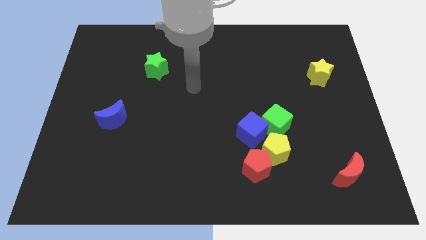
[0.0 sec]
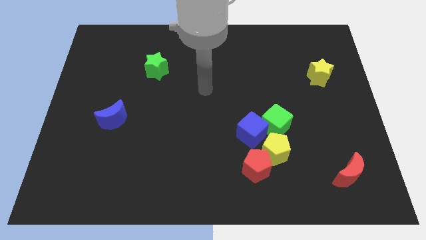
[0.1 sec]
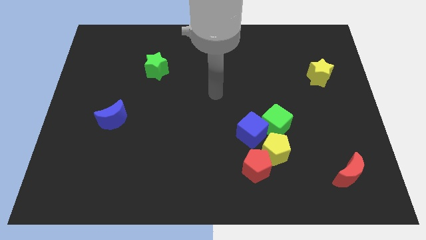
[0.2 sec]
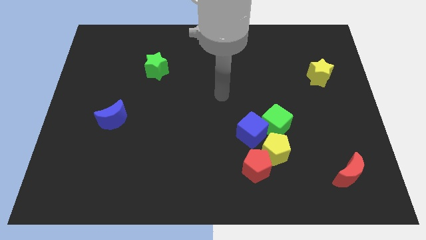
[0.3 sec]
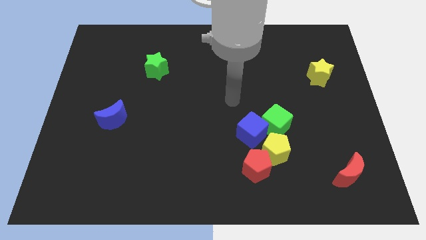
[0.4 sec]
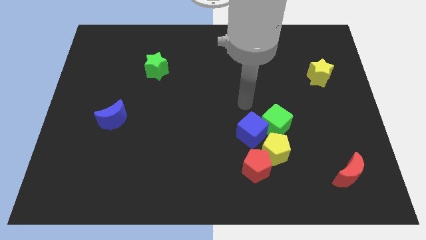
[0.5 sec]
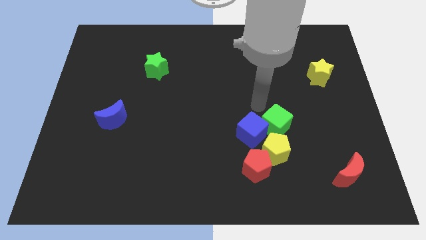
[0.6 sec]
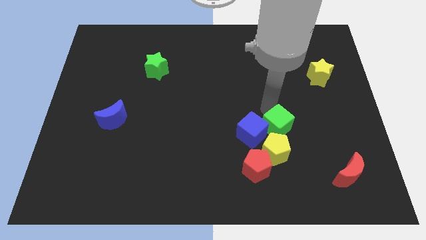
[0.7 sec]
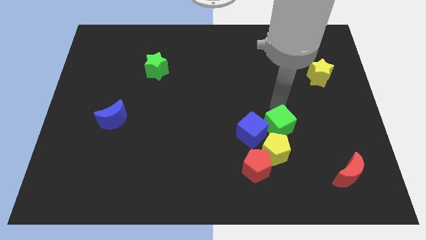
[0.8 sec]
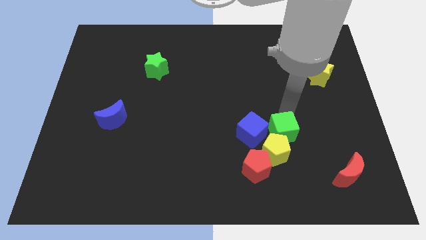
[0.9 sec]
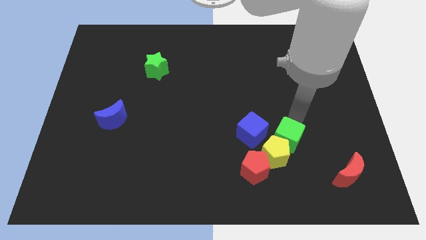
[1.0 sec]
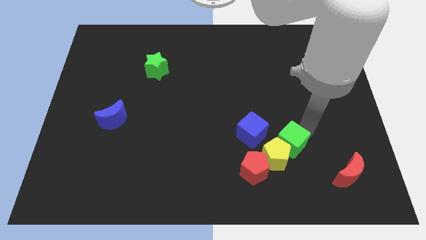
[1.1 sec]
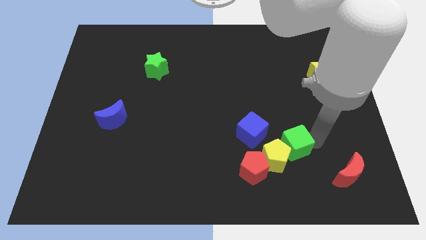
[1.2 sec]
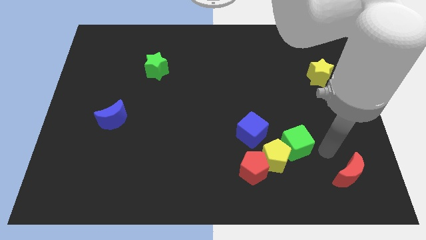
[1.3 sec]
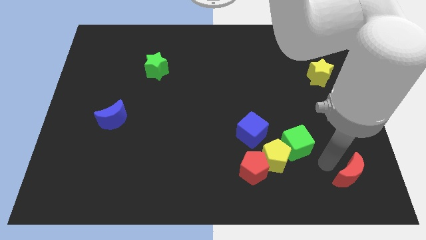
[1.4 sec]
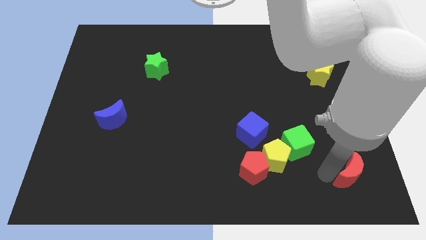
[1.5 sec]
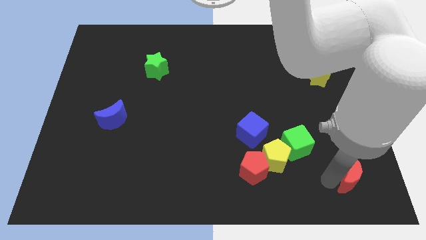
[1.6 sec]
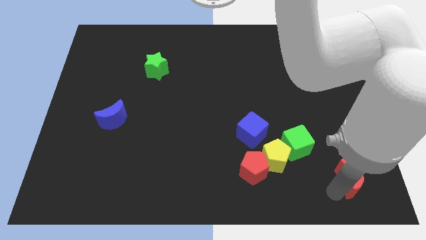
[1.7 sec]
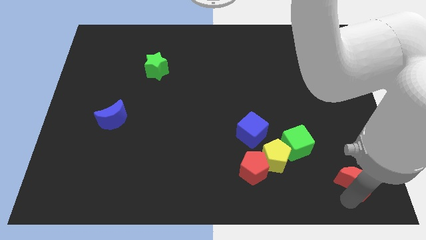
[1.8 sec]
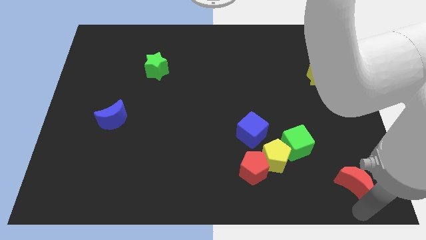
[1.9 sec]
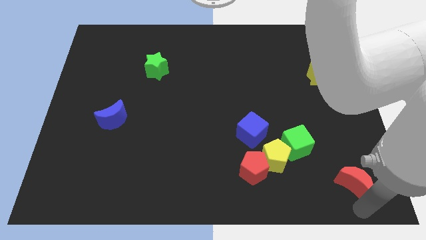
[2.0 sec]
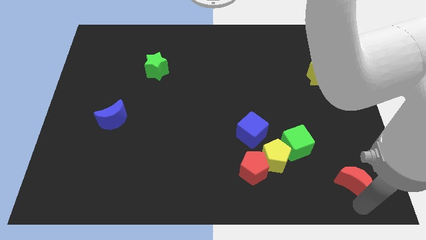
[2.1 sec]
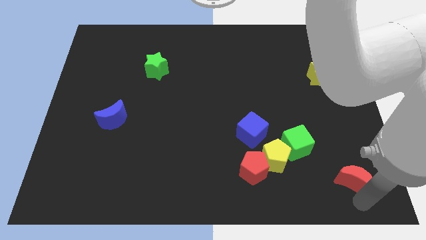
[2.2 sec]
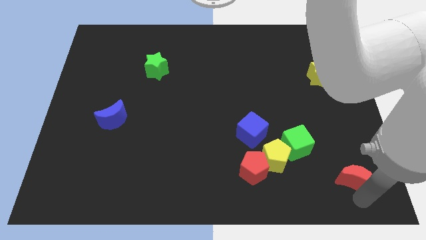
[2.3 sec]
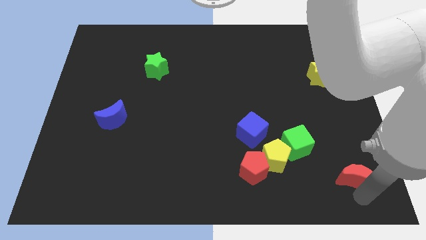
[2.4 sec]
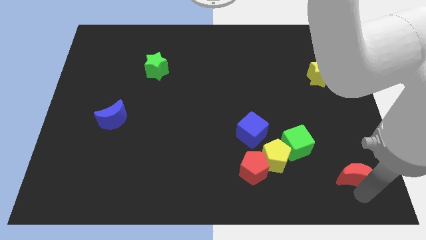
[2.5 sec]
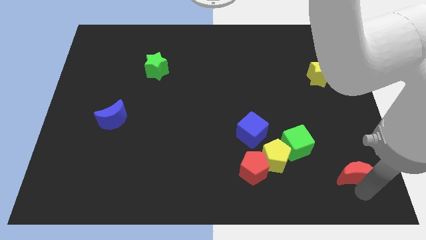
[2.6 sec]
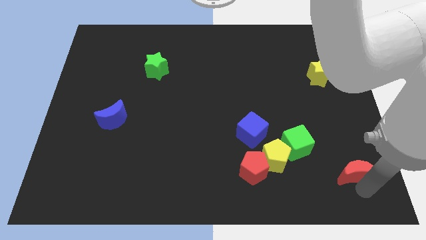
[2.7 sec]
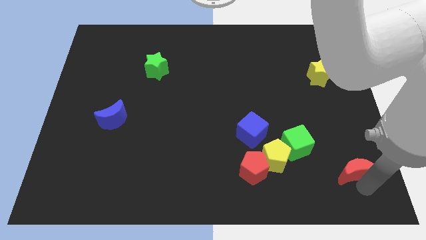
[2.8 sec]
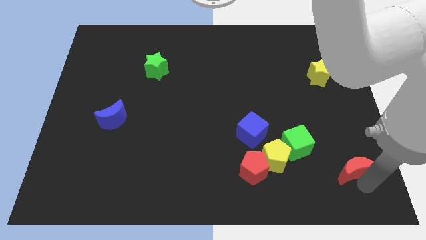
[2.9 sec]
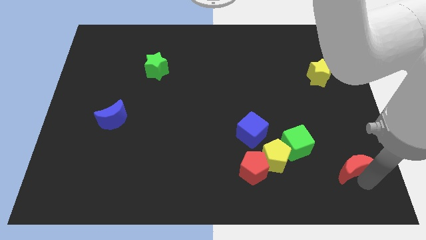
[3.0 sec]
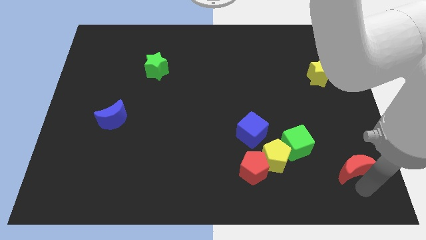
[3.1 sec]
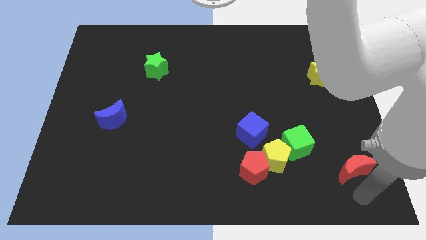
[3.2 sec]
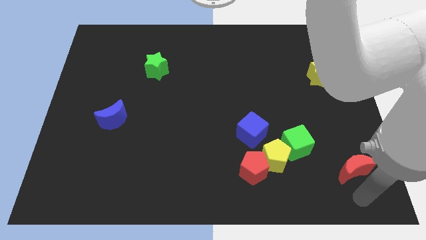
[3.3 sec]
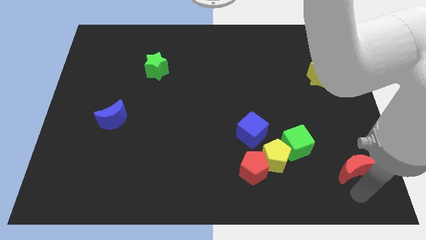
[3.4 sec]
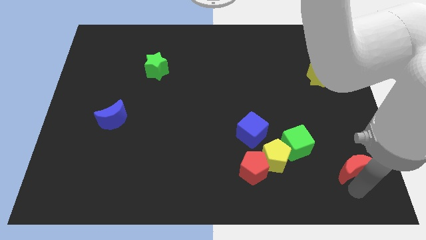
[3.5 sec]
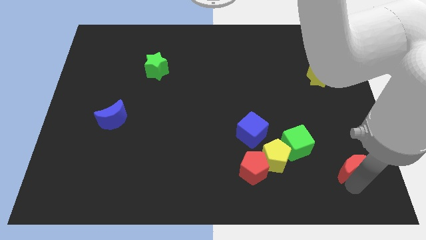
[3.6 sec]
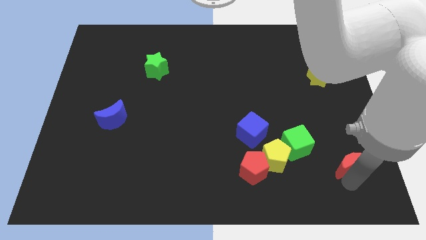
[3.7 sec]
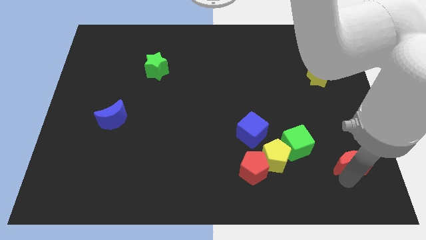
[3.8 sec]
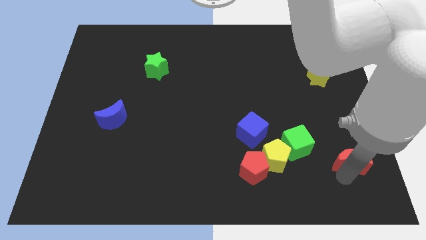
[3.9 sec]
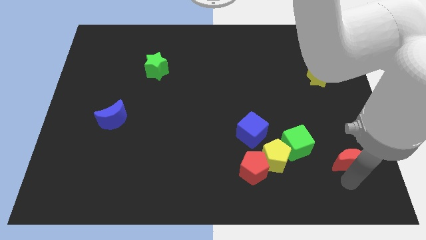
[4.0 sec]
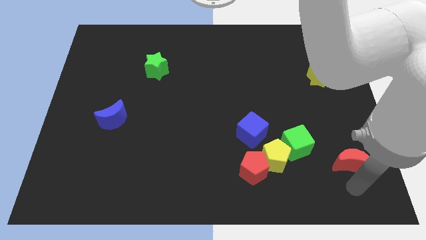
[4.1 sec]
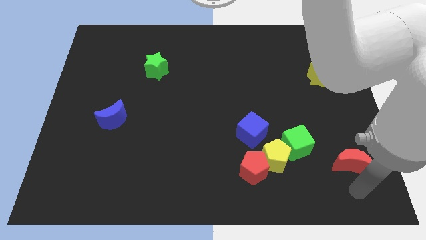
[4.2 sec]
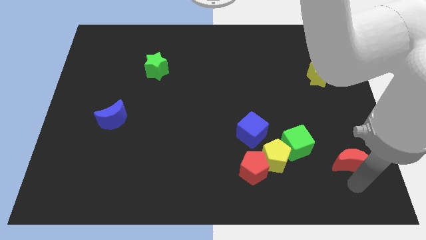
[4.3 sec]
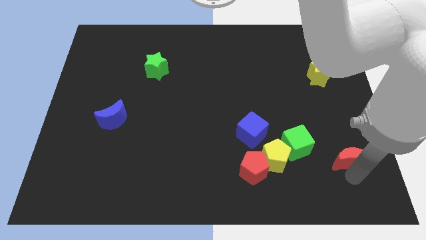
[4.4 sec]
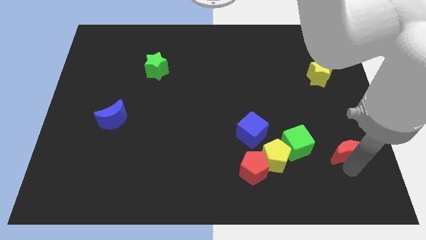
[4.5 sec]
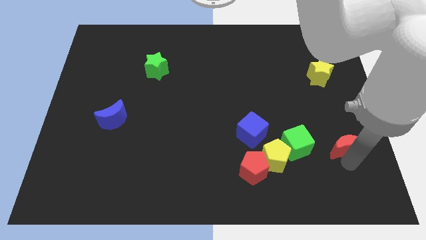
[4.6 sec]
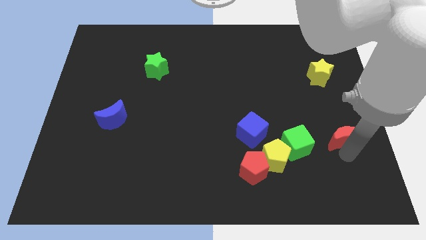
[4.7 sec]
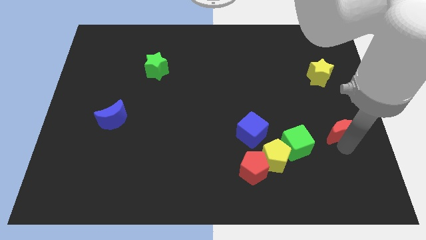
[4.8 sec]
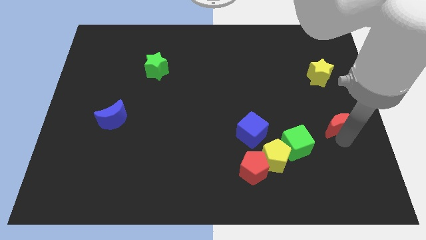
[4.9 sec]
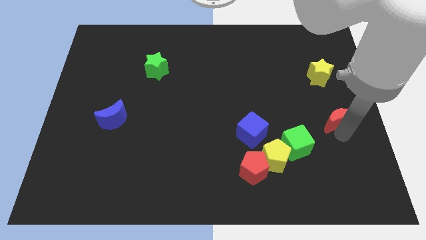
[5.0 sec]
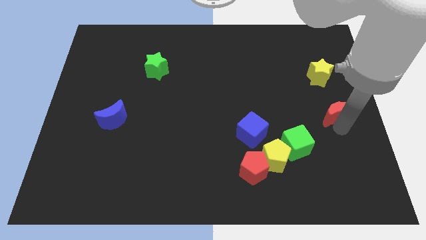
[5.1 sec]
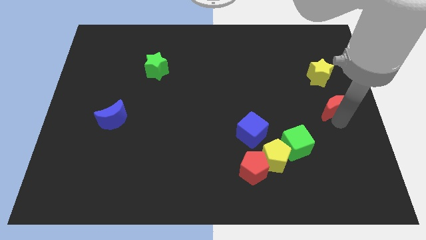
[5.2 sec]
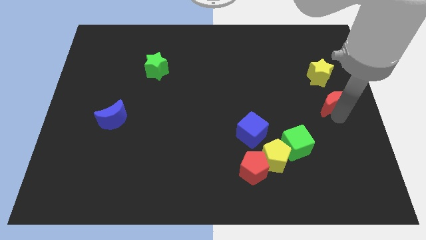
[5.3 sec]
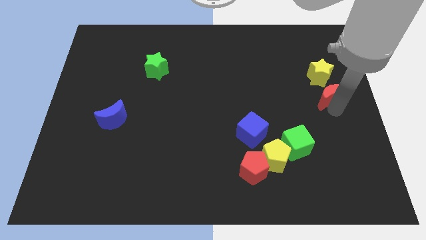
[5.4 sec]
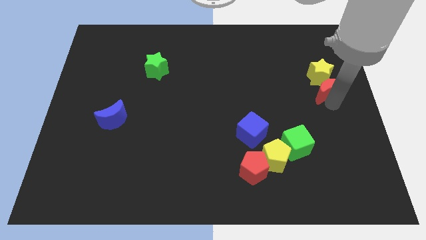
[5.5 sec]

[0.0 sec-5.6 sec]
slide the red moon towards the yellow star

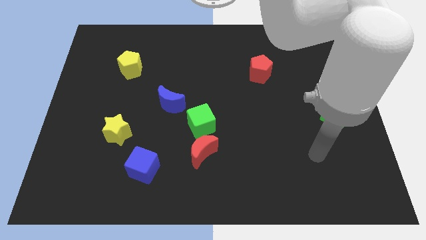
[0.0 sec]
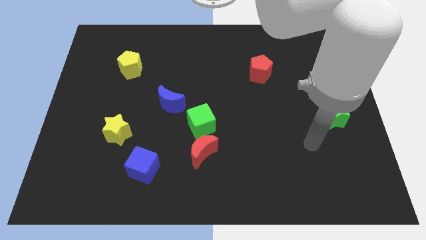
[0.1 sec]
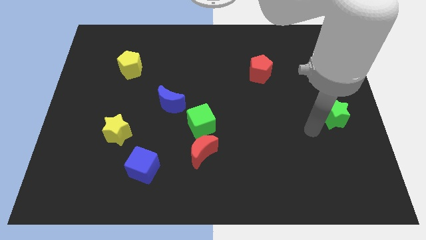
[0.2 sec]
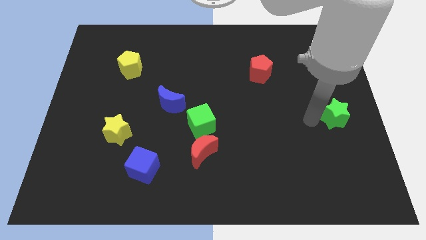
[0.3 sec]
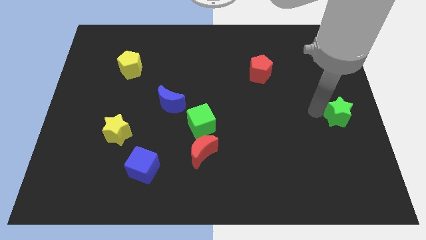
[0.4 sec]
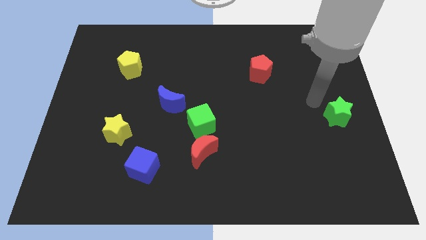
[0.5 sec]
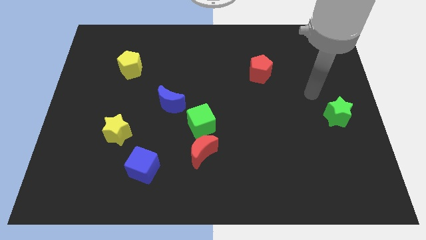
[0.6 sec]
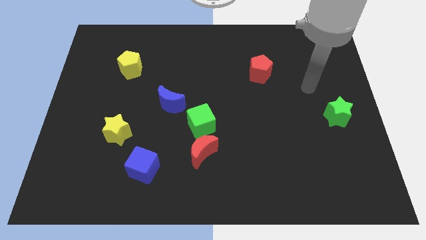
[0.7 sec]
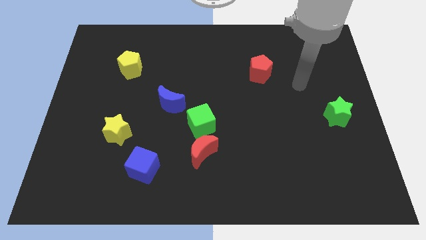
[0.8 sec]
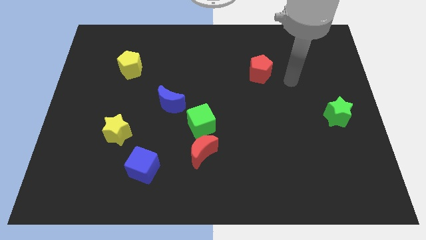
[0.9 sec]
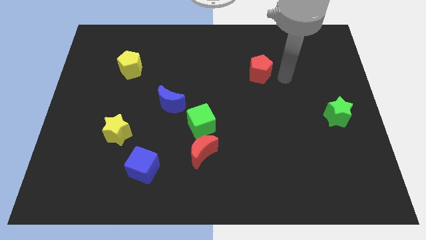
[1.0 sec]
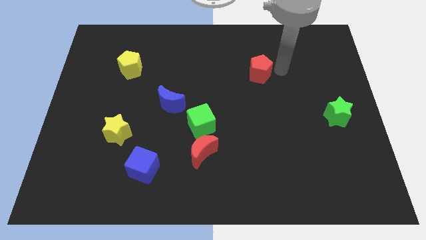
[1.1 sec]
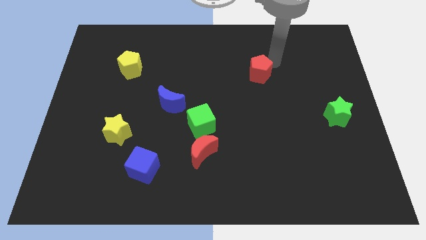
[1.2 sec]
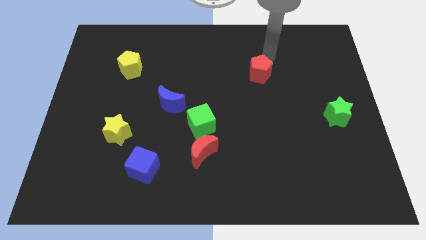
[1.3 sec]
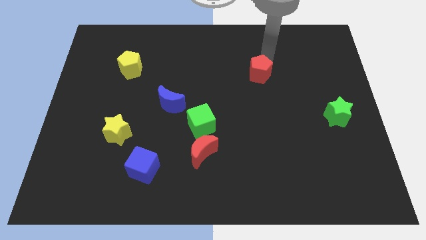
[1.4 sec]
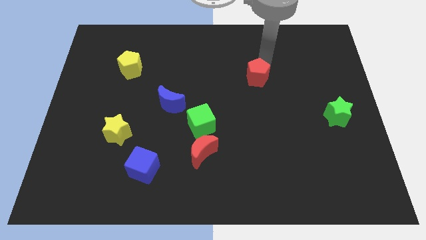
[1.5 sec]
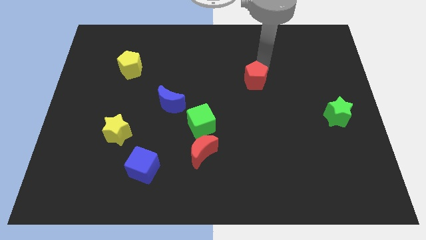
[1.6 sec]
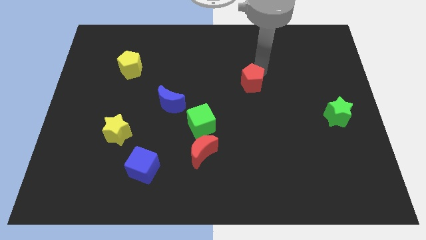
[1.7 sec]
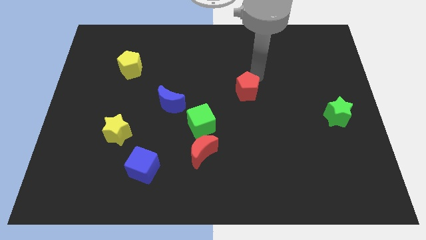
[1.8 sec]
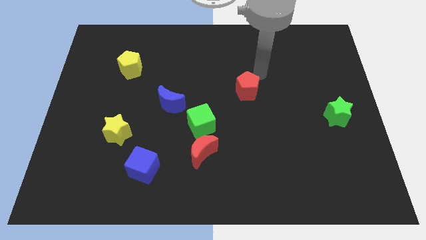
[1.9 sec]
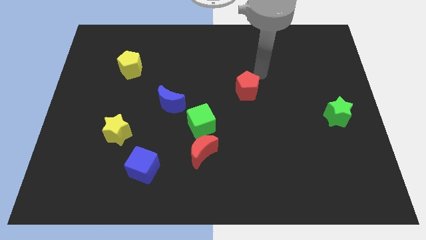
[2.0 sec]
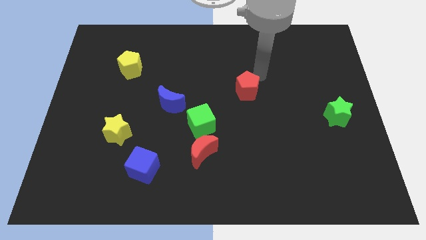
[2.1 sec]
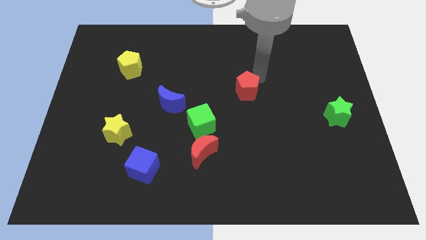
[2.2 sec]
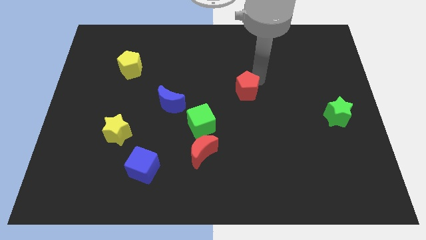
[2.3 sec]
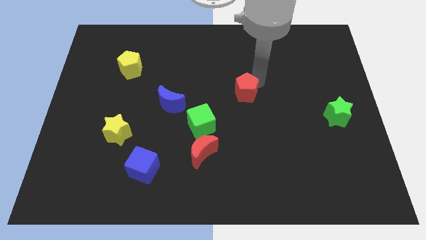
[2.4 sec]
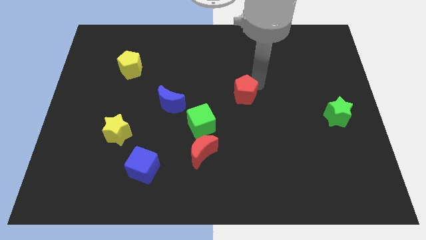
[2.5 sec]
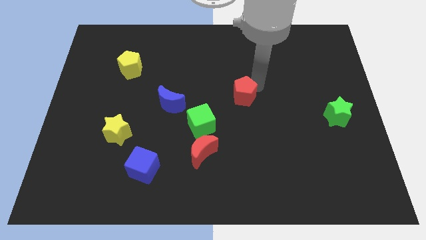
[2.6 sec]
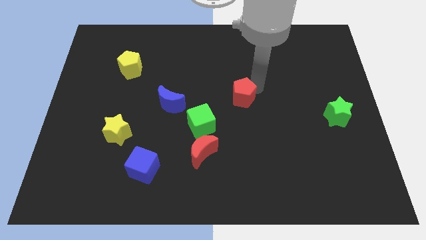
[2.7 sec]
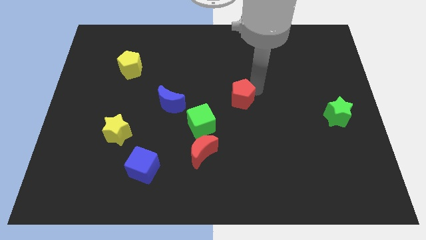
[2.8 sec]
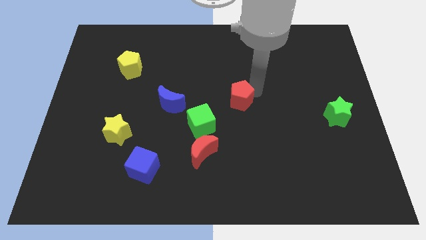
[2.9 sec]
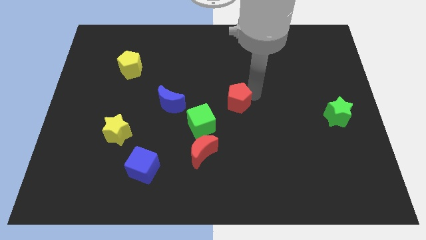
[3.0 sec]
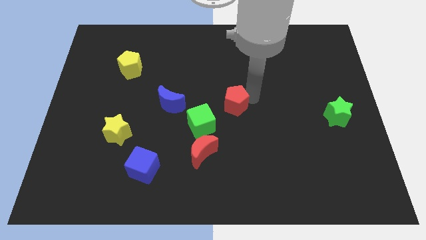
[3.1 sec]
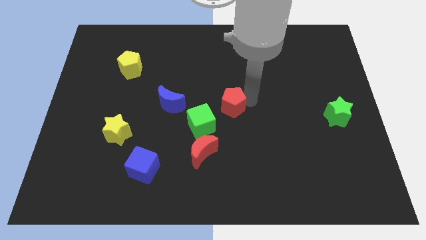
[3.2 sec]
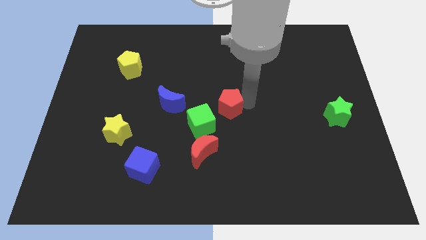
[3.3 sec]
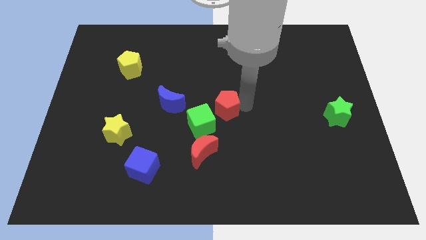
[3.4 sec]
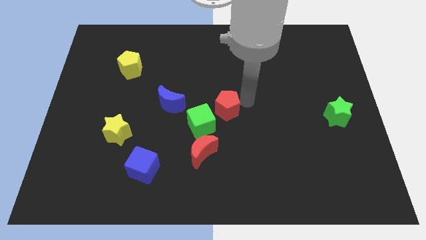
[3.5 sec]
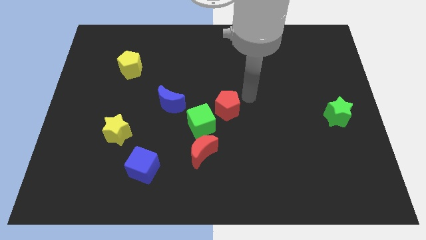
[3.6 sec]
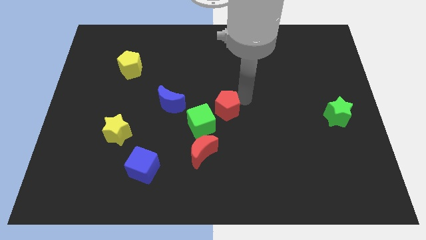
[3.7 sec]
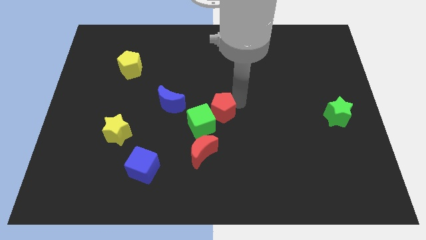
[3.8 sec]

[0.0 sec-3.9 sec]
put the red pentagon close to the green cube
